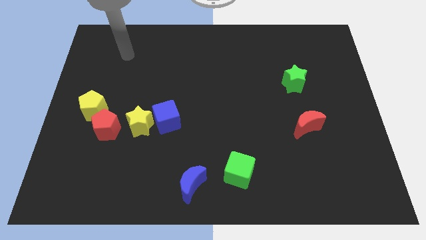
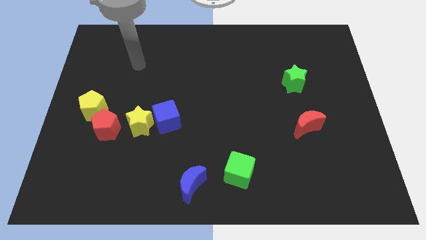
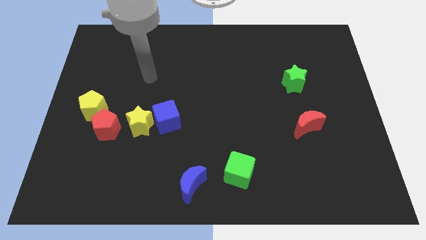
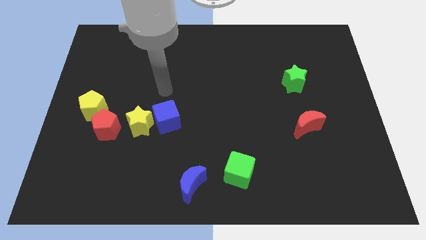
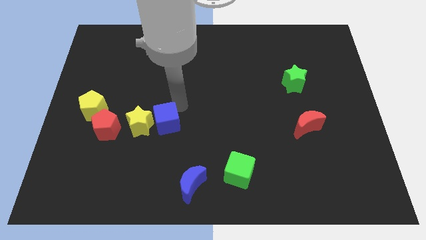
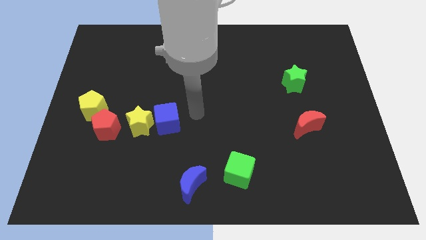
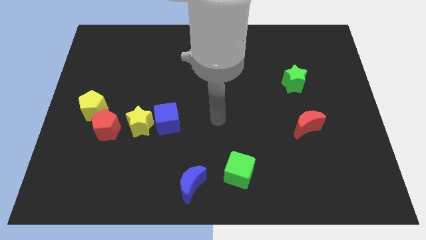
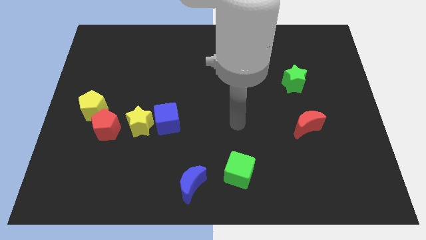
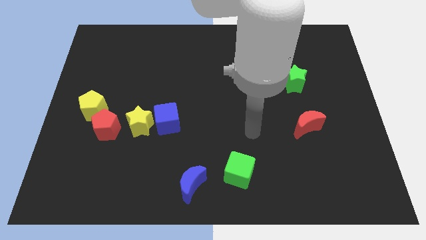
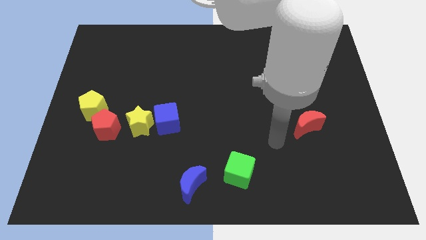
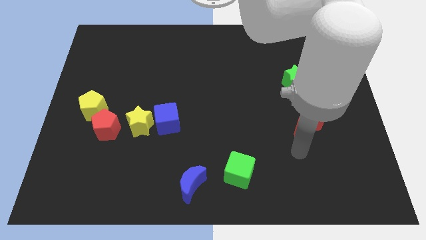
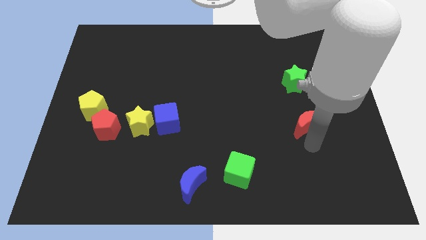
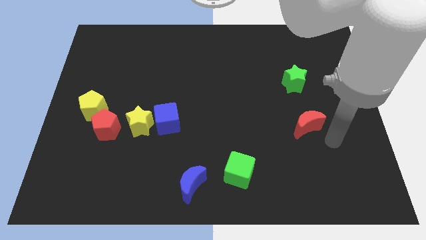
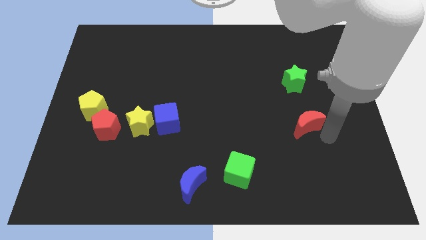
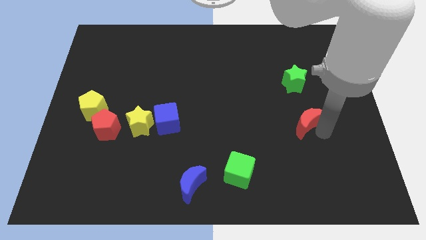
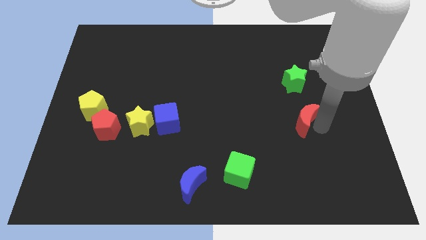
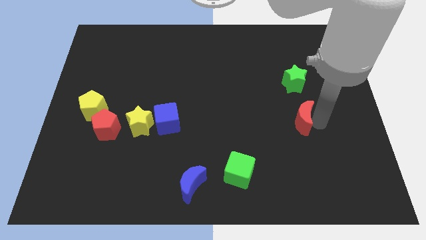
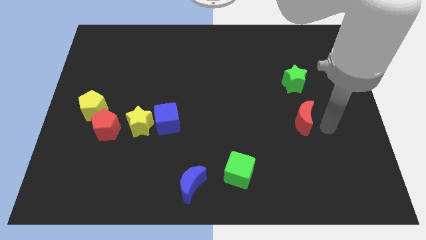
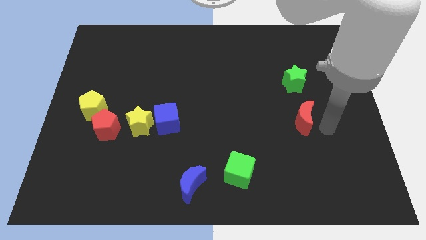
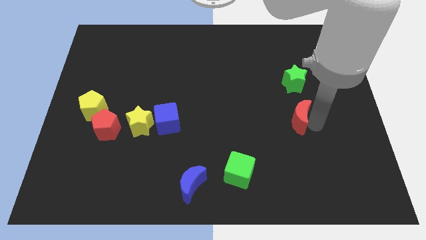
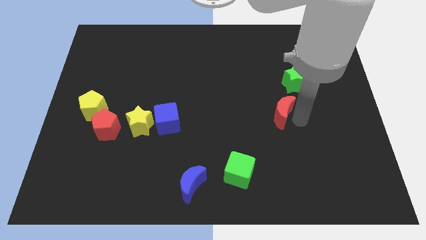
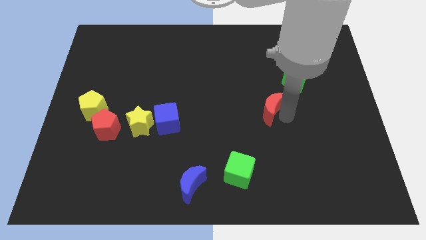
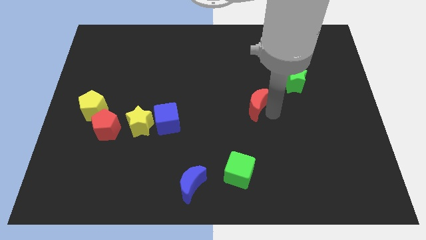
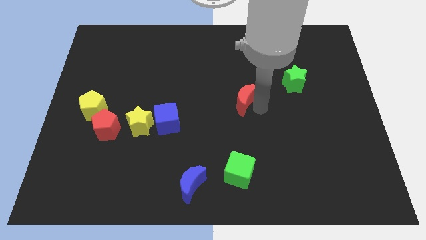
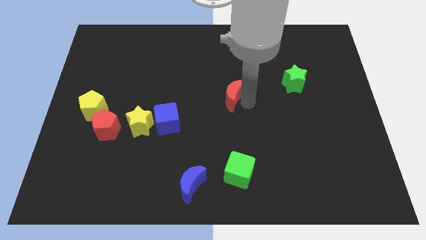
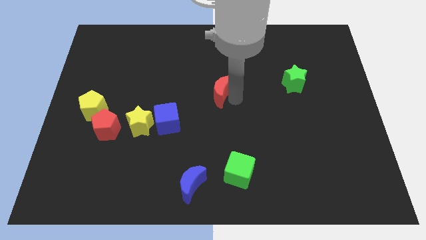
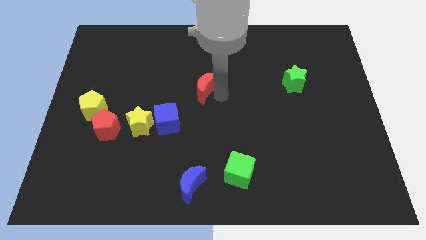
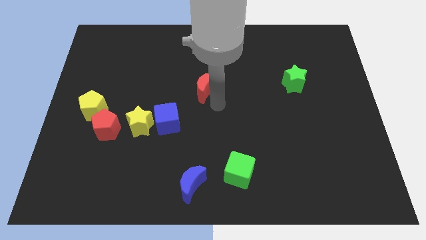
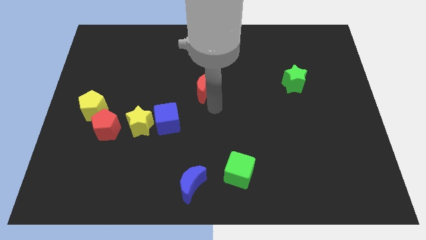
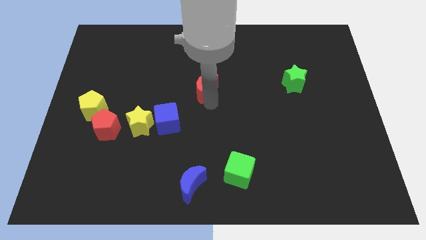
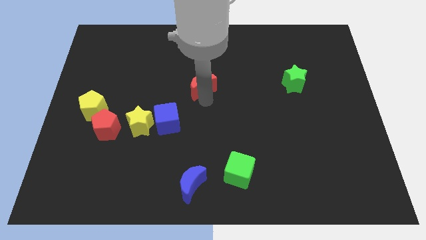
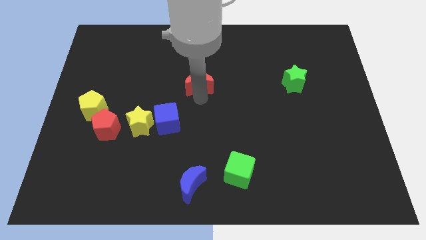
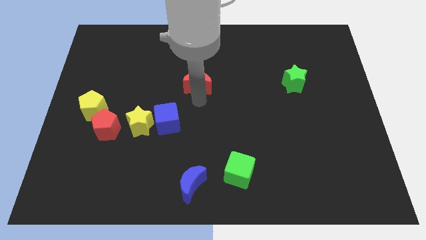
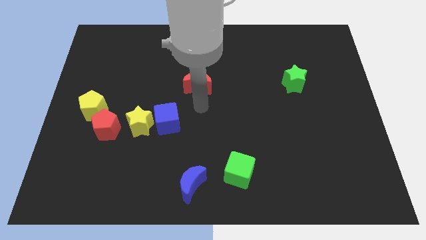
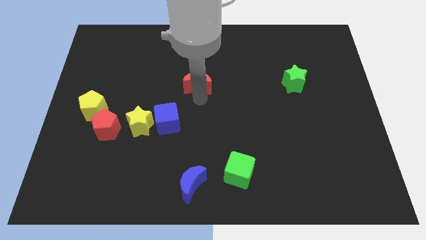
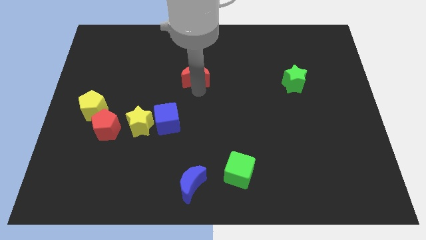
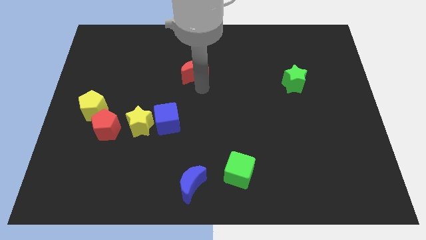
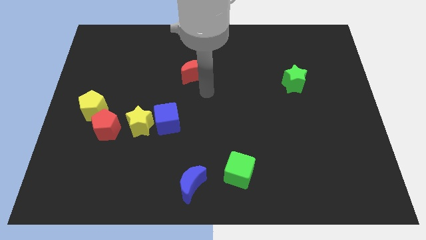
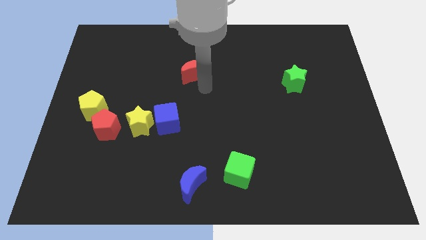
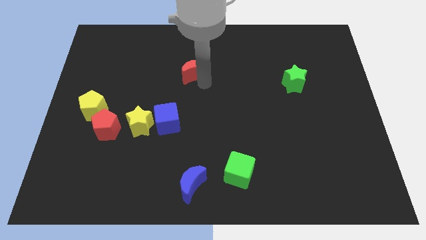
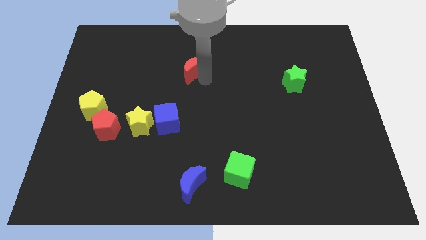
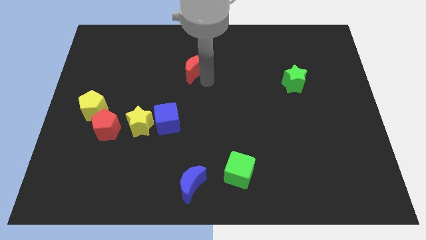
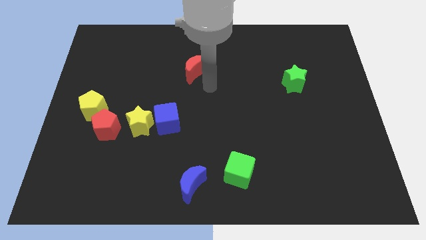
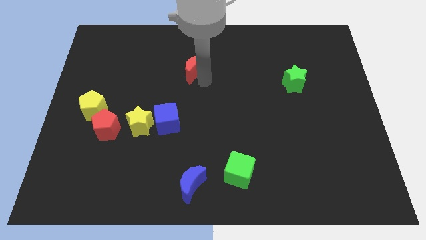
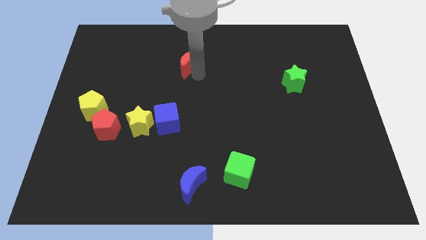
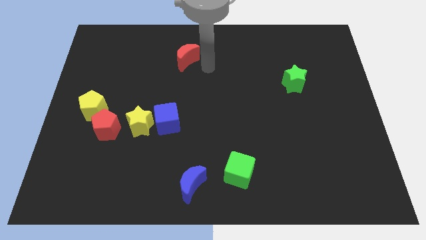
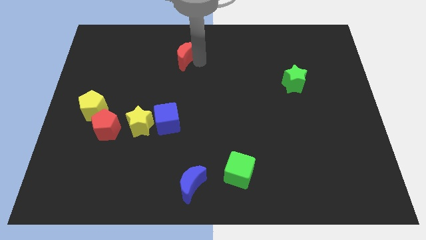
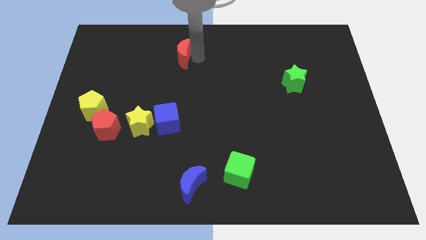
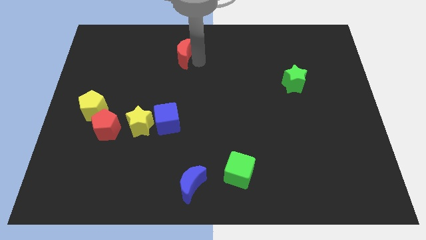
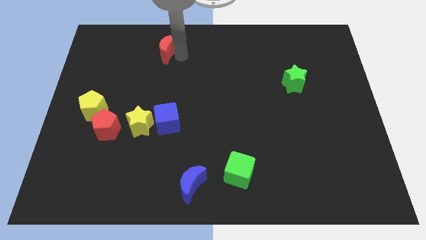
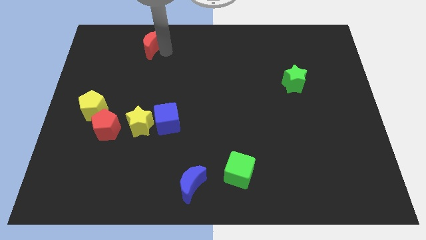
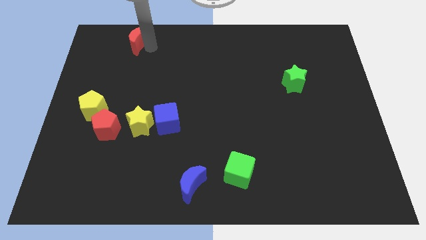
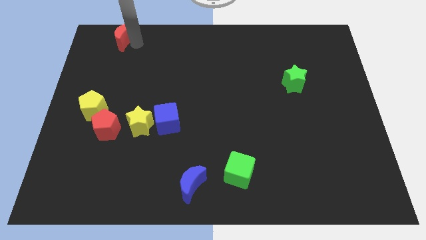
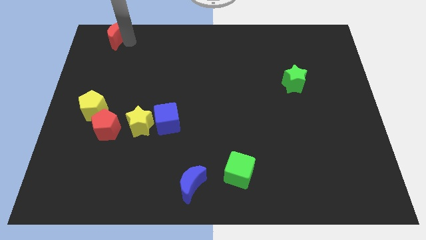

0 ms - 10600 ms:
put the red moon to the top left corner

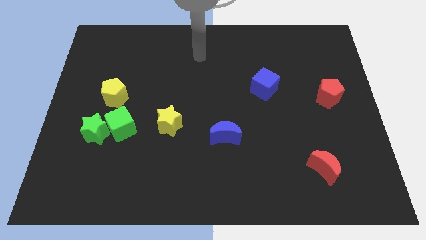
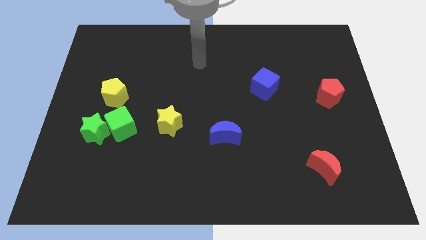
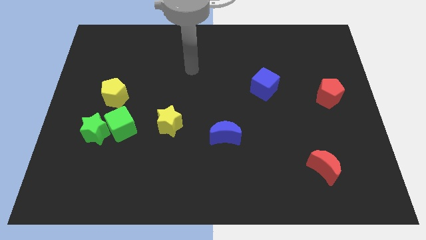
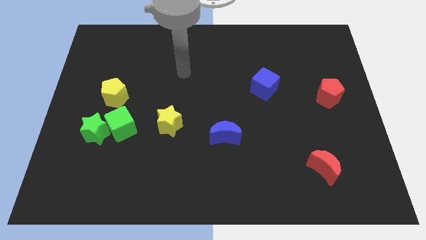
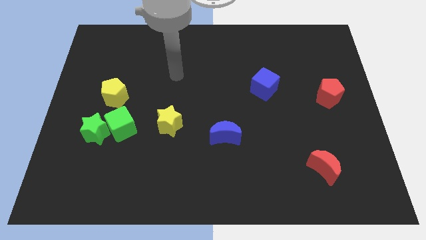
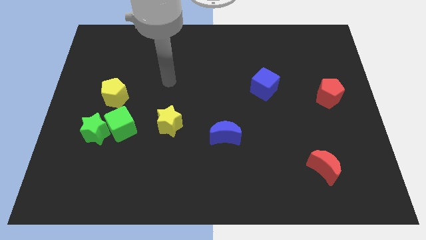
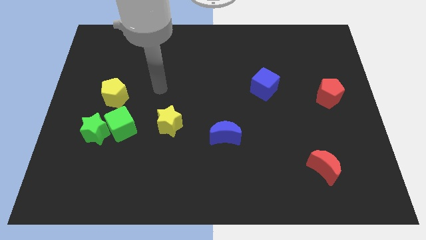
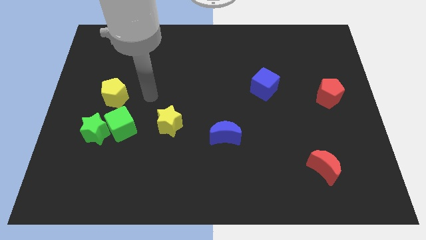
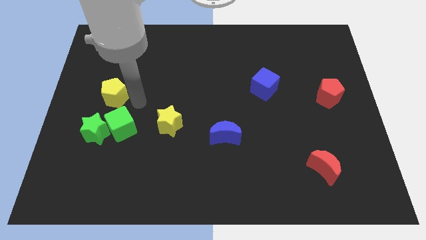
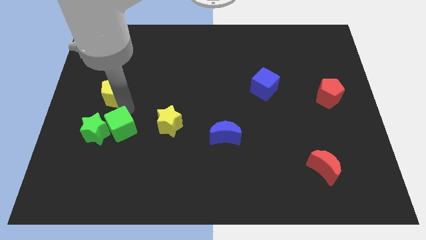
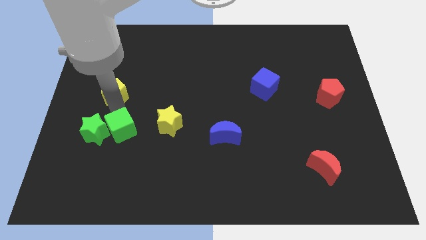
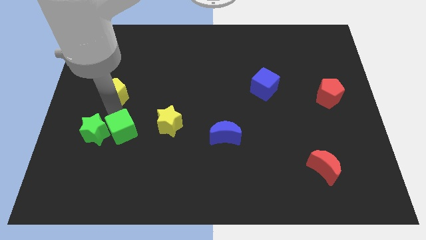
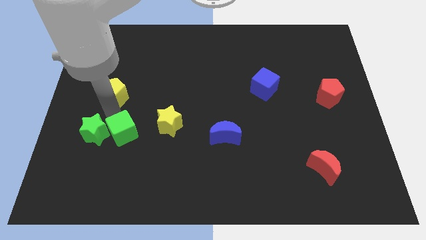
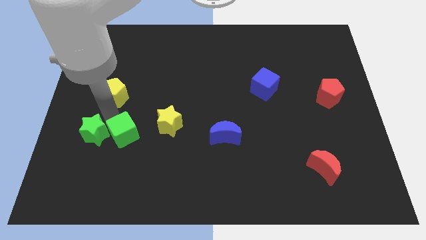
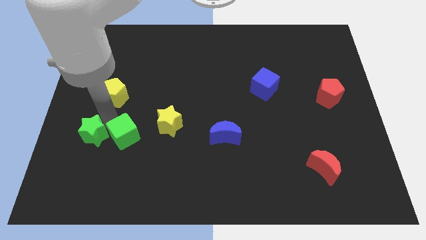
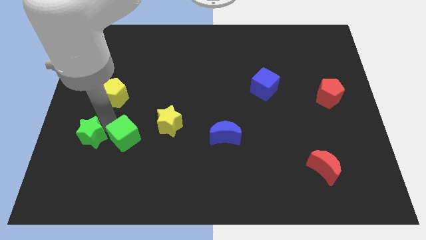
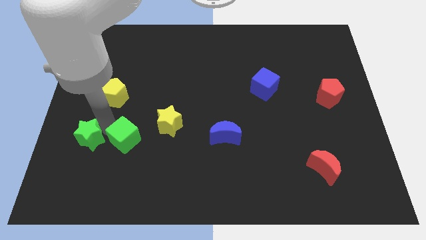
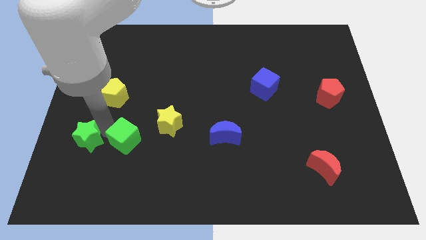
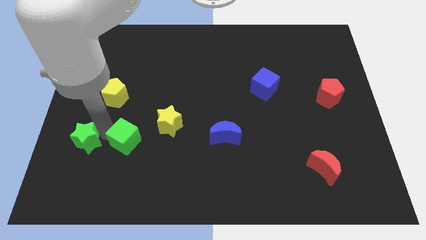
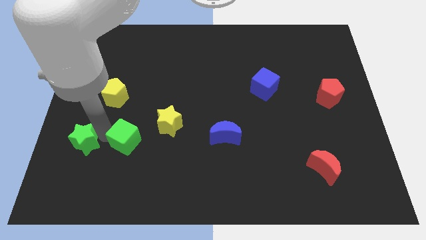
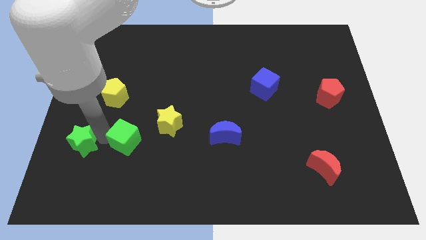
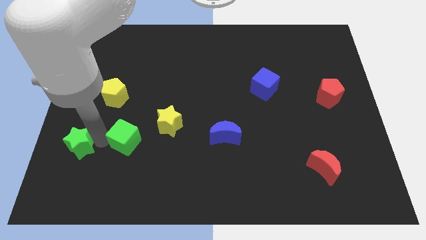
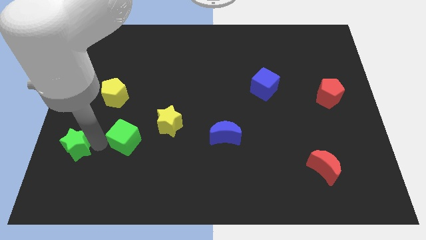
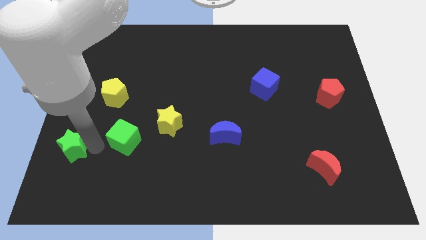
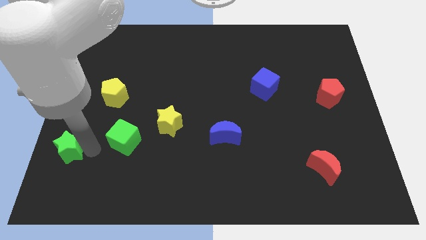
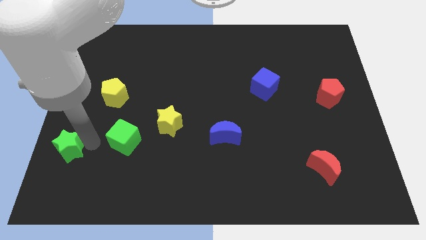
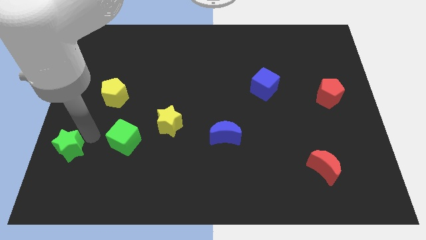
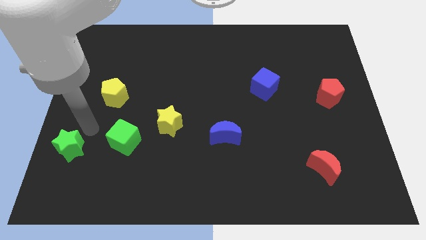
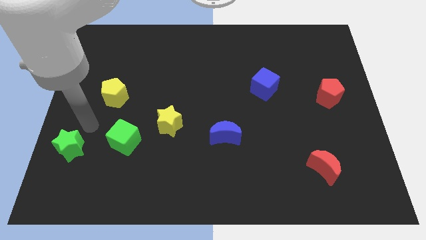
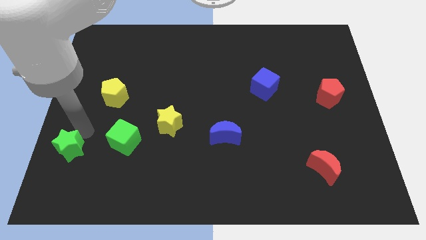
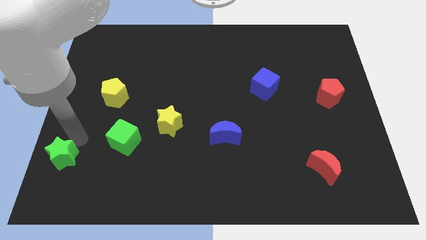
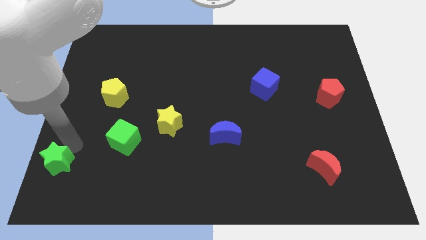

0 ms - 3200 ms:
put the green star to the bottom left of the board
